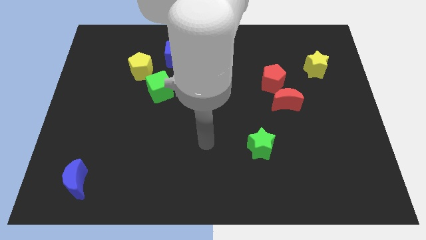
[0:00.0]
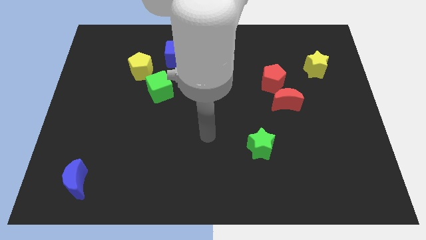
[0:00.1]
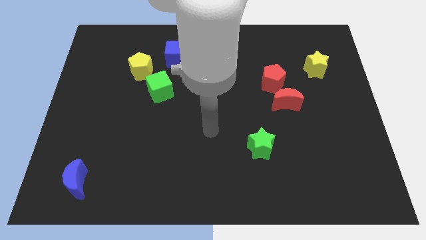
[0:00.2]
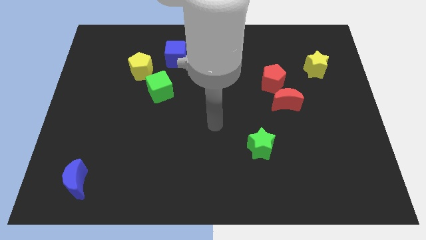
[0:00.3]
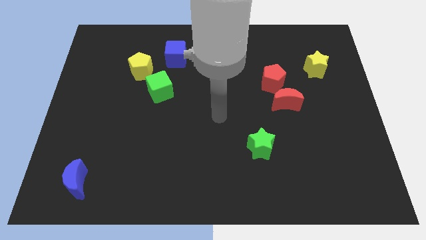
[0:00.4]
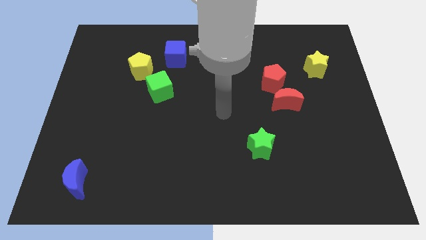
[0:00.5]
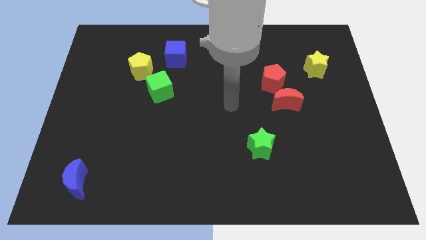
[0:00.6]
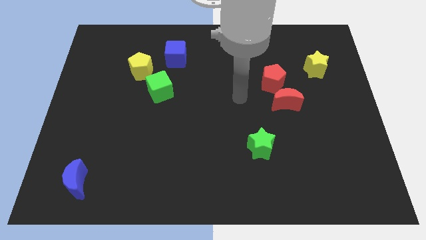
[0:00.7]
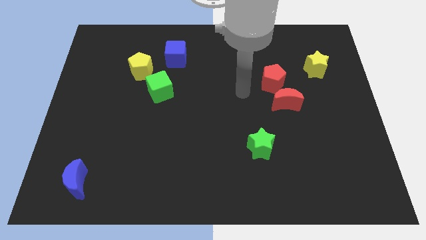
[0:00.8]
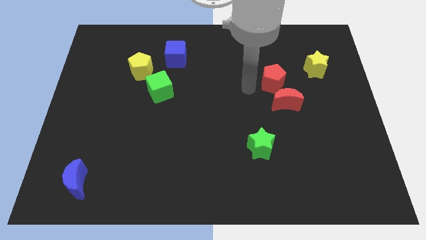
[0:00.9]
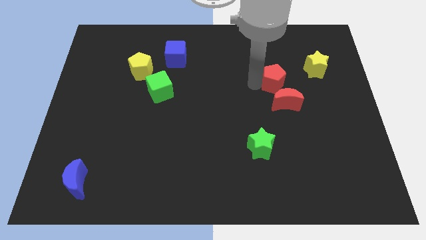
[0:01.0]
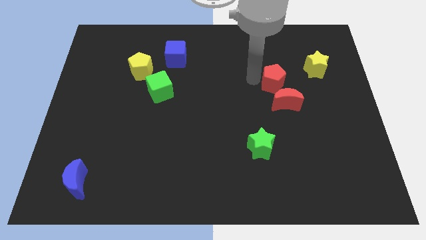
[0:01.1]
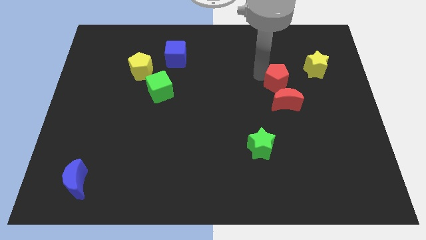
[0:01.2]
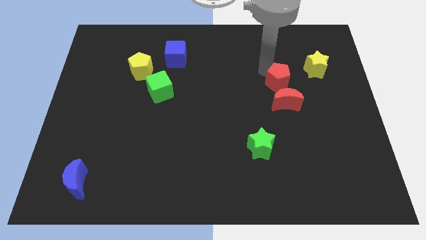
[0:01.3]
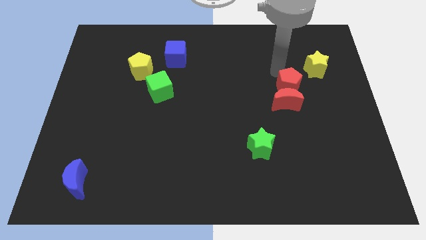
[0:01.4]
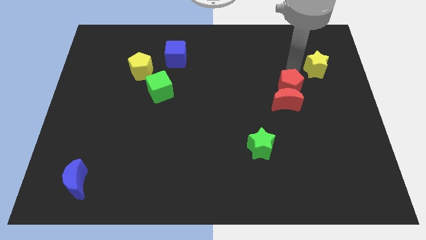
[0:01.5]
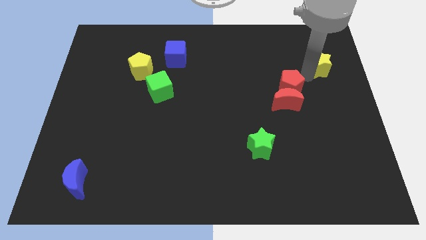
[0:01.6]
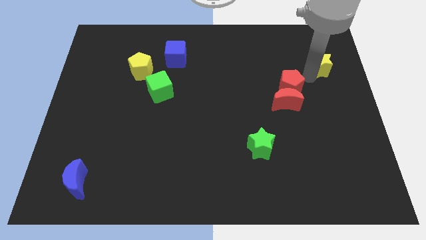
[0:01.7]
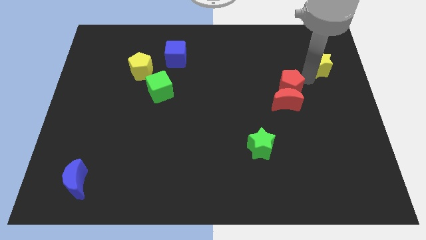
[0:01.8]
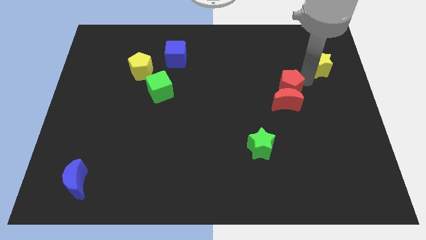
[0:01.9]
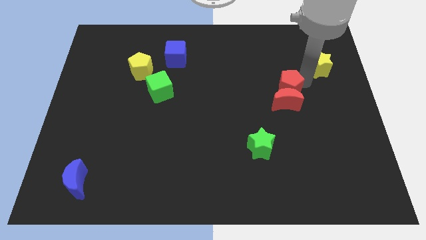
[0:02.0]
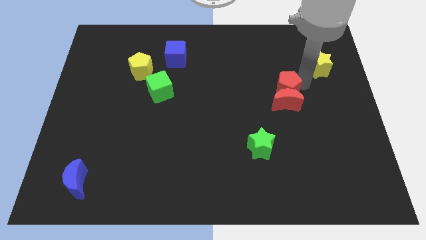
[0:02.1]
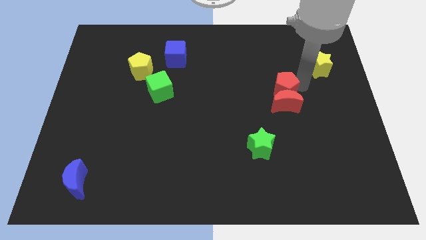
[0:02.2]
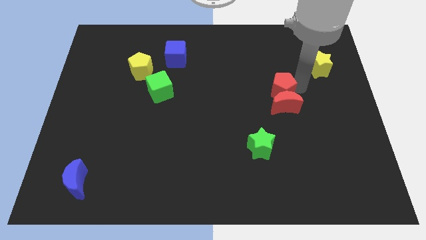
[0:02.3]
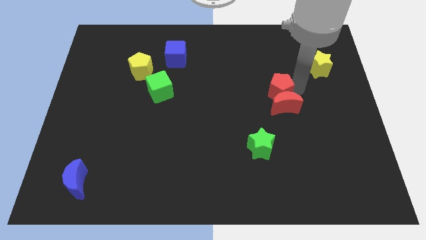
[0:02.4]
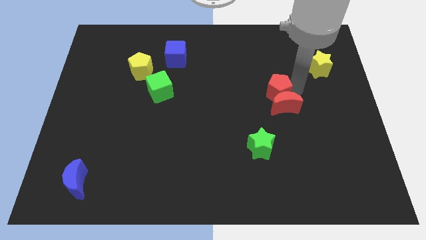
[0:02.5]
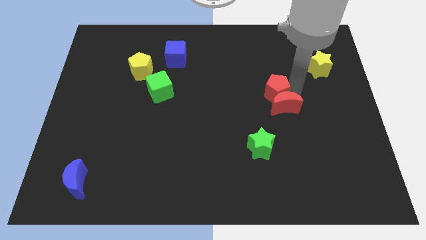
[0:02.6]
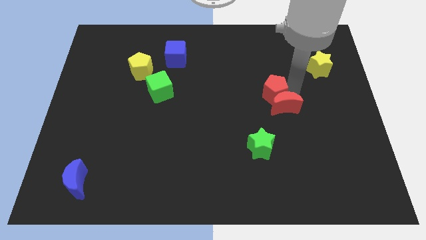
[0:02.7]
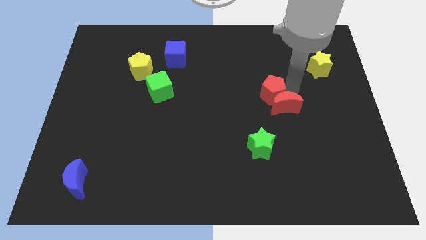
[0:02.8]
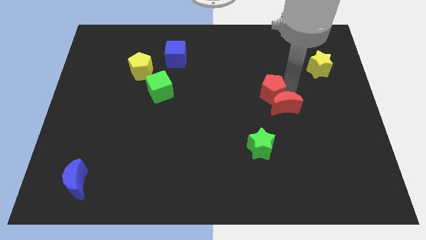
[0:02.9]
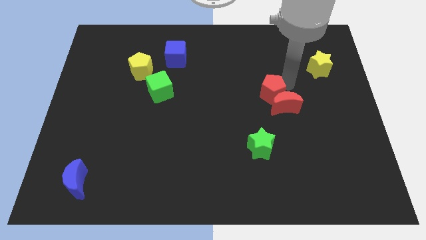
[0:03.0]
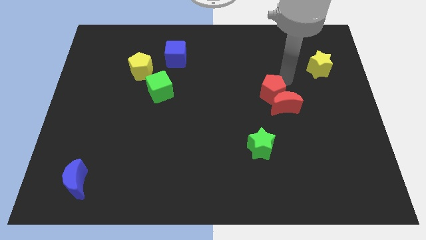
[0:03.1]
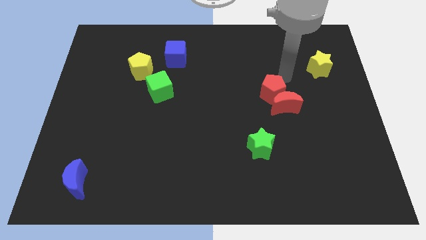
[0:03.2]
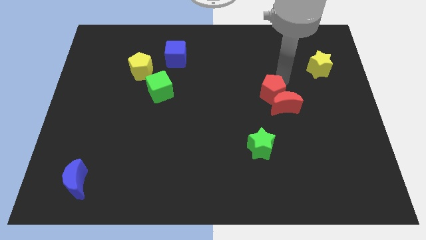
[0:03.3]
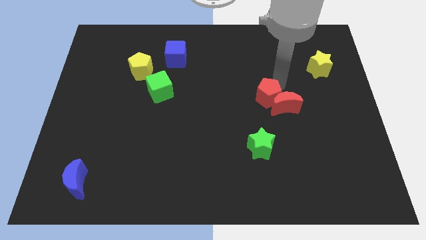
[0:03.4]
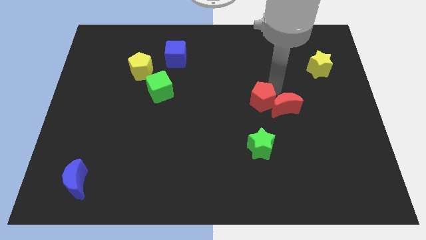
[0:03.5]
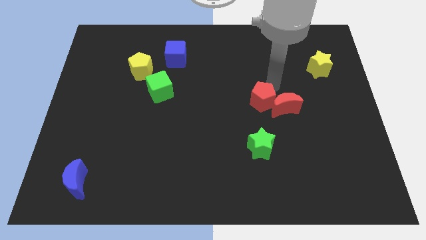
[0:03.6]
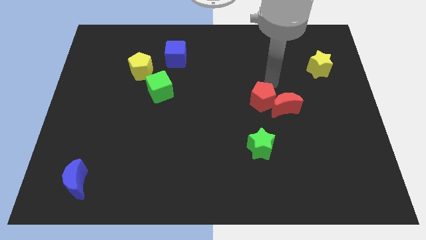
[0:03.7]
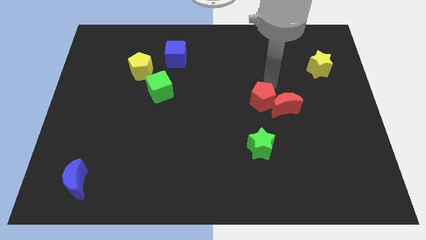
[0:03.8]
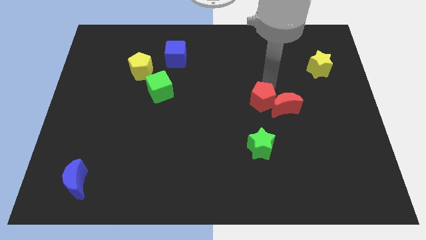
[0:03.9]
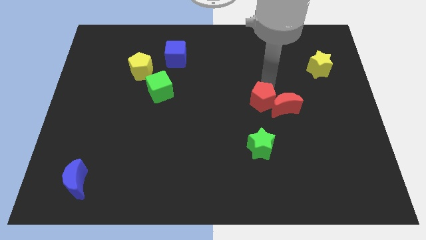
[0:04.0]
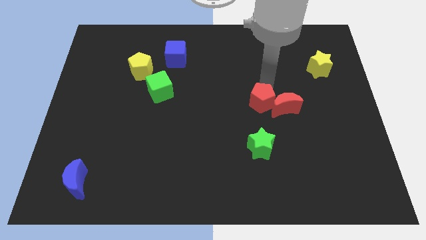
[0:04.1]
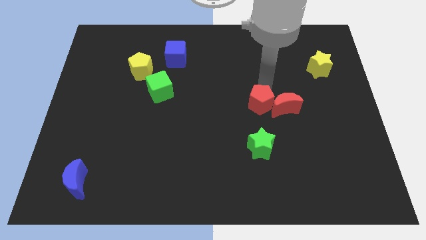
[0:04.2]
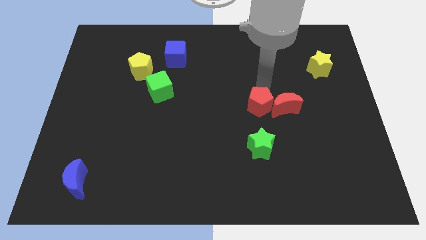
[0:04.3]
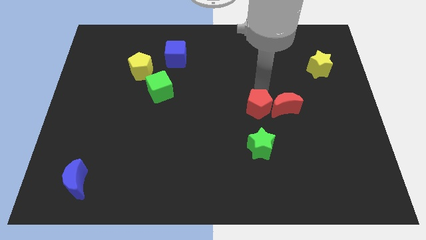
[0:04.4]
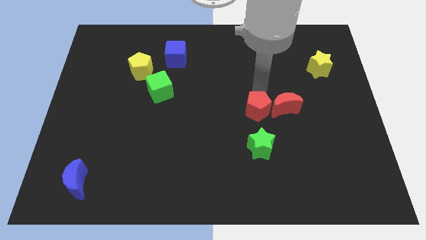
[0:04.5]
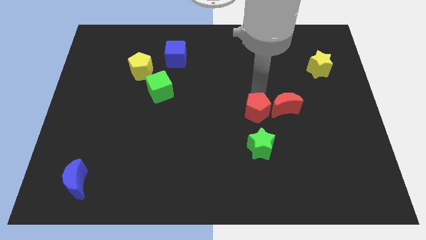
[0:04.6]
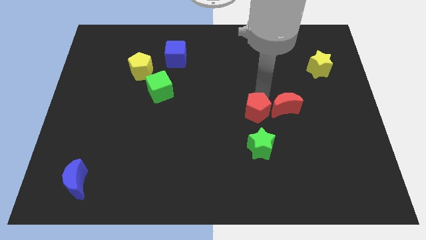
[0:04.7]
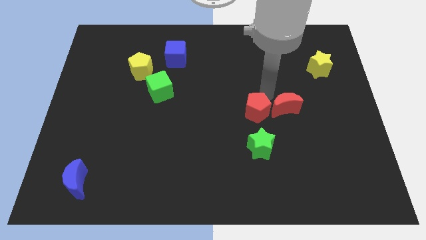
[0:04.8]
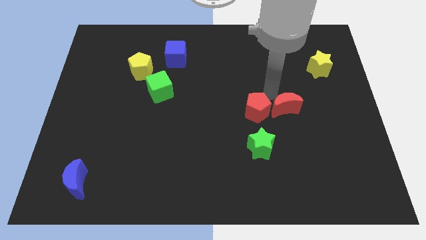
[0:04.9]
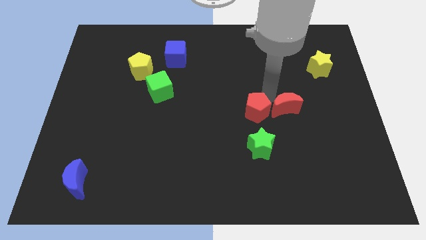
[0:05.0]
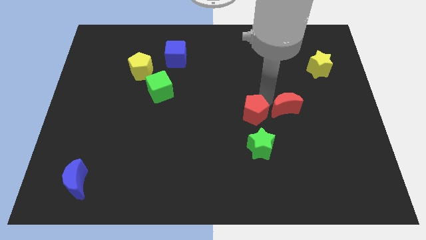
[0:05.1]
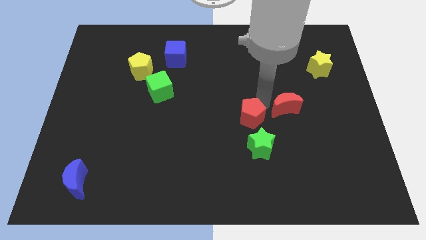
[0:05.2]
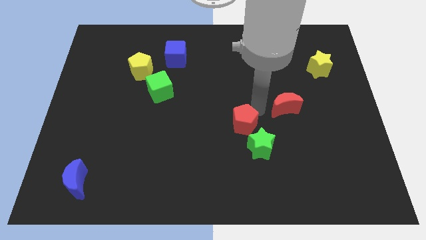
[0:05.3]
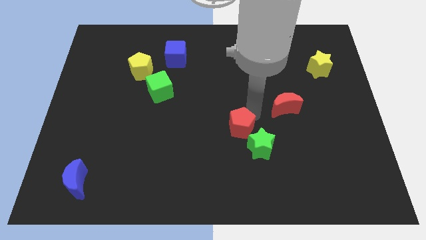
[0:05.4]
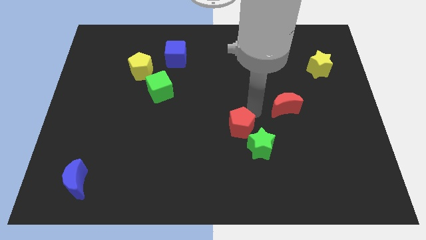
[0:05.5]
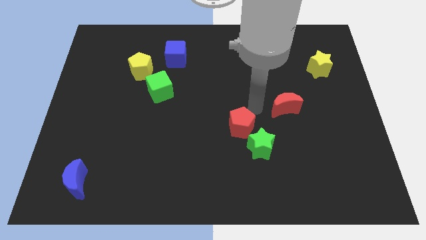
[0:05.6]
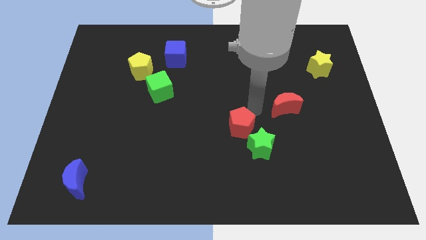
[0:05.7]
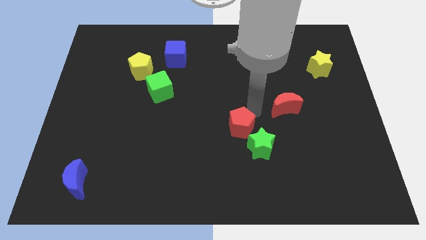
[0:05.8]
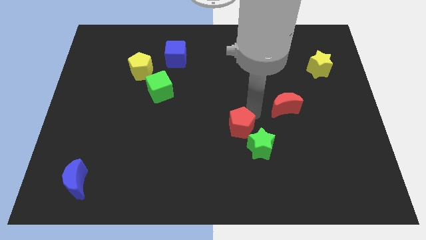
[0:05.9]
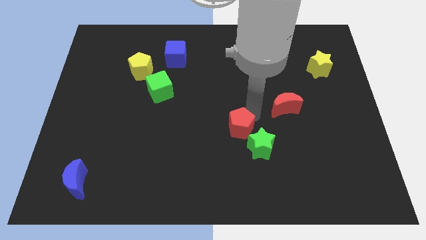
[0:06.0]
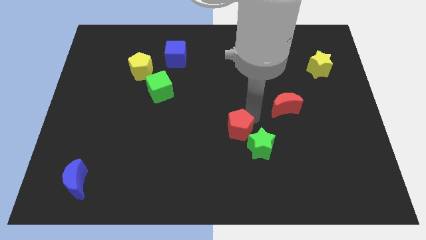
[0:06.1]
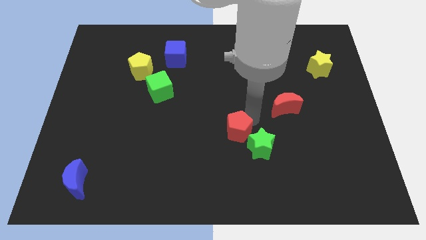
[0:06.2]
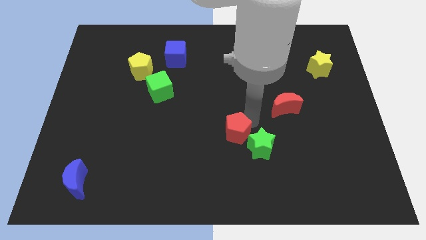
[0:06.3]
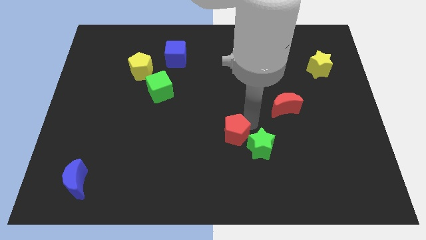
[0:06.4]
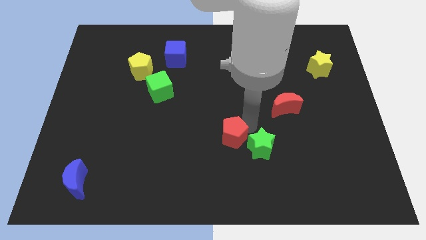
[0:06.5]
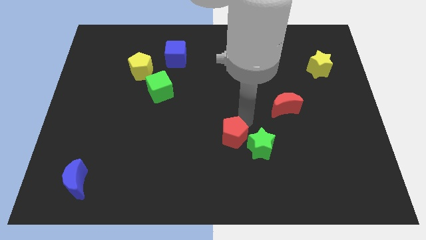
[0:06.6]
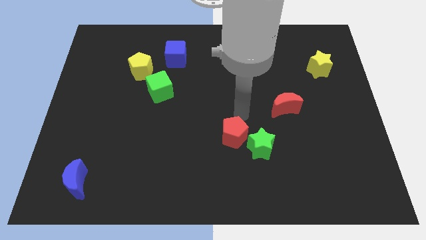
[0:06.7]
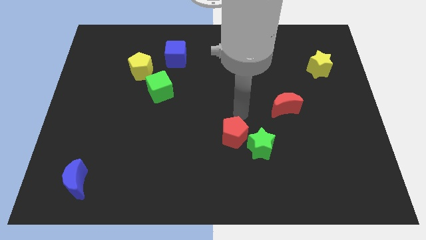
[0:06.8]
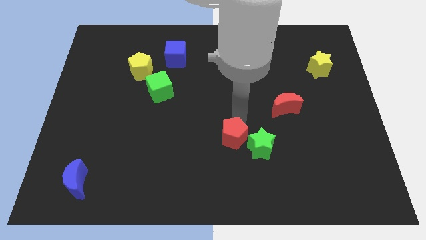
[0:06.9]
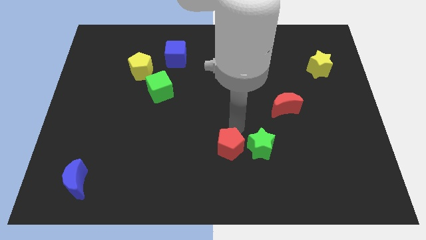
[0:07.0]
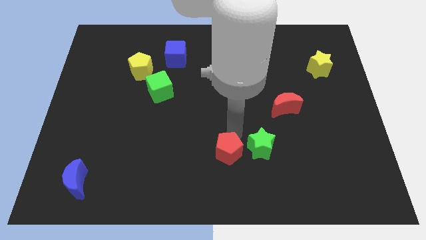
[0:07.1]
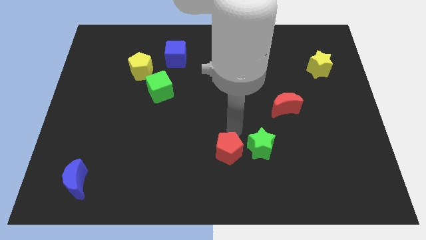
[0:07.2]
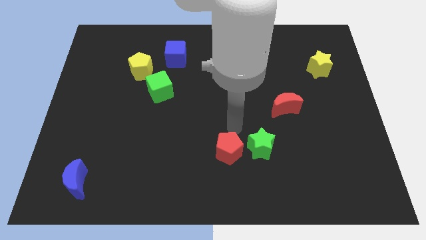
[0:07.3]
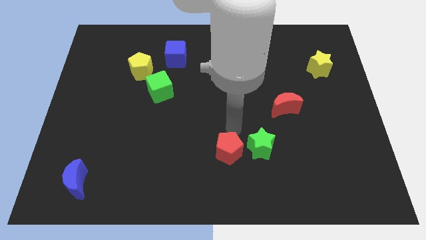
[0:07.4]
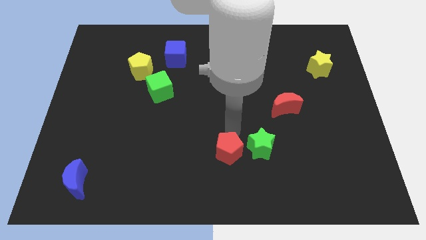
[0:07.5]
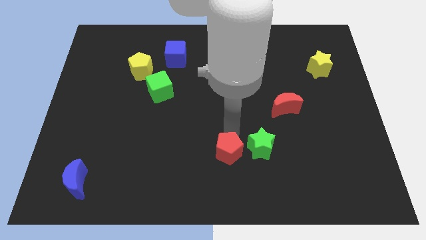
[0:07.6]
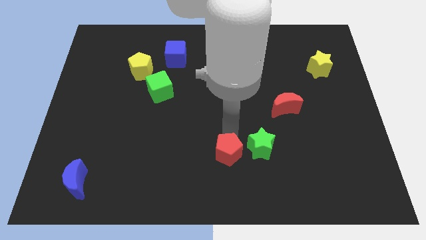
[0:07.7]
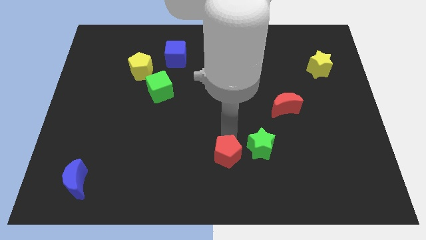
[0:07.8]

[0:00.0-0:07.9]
move the red pentagon to the bottom side
